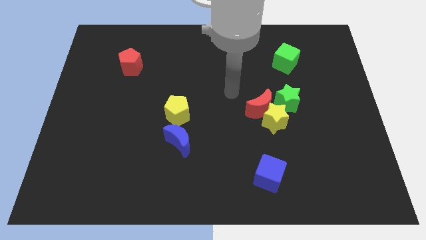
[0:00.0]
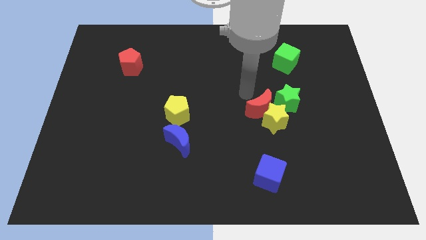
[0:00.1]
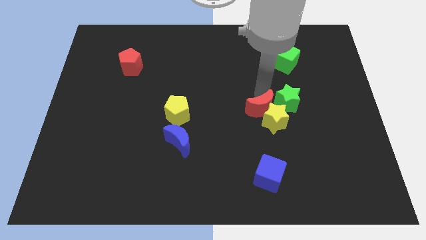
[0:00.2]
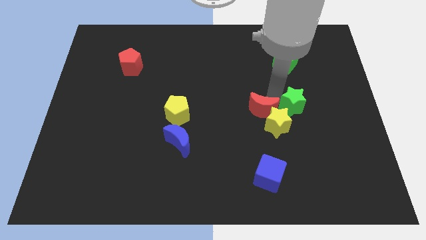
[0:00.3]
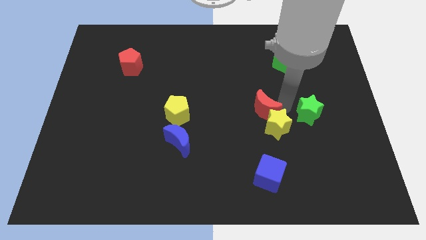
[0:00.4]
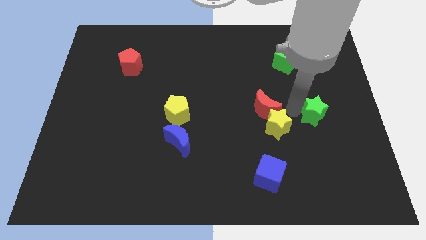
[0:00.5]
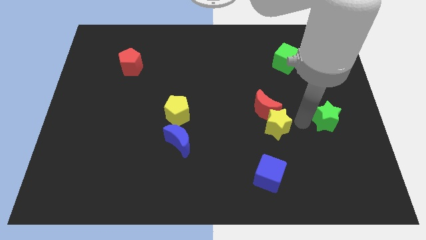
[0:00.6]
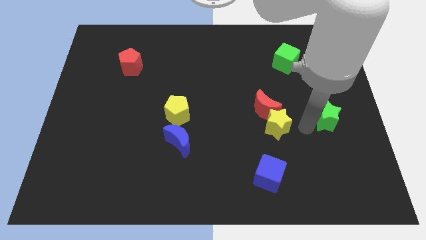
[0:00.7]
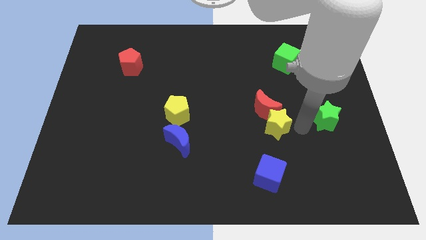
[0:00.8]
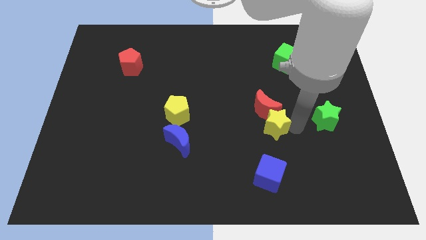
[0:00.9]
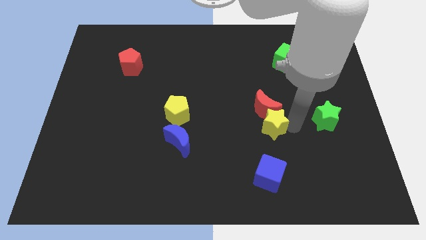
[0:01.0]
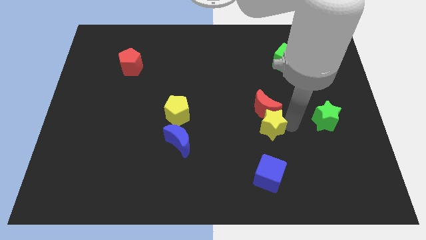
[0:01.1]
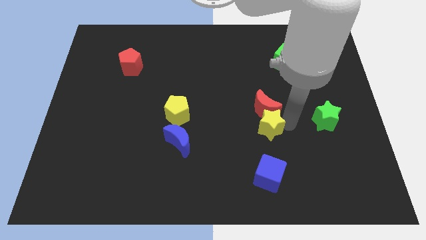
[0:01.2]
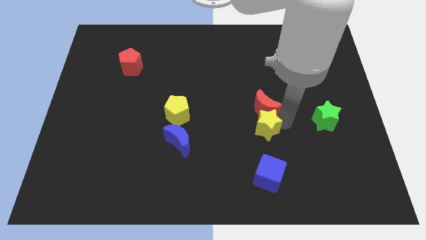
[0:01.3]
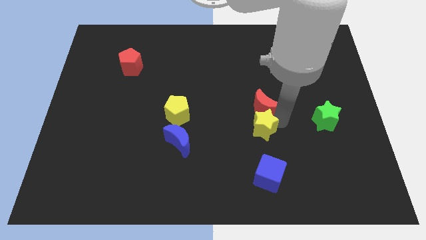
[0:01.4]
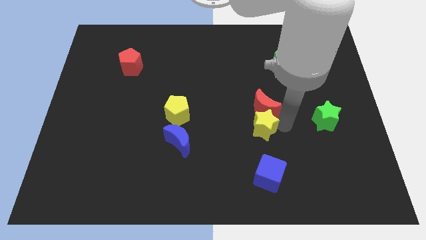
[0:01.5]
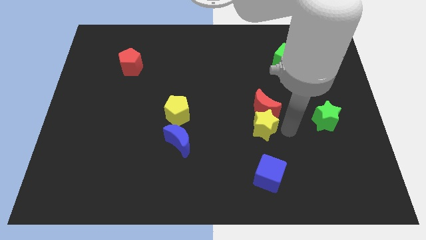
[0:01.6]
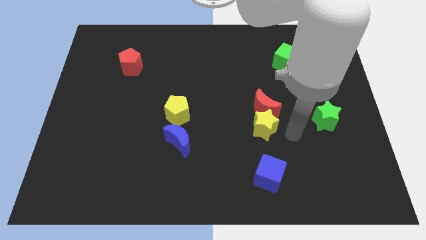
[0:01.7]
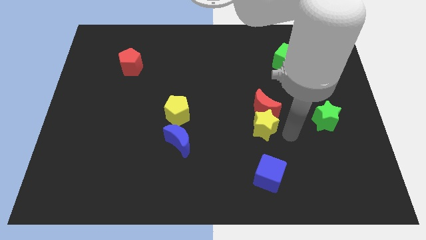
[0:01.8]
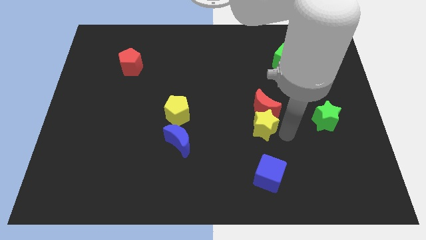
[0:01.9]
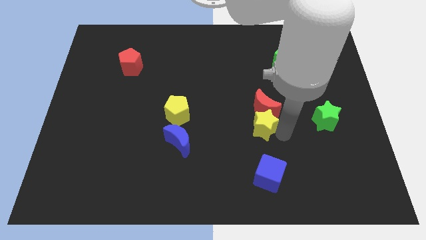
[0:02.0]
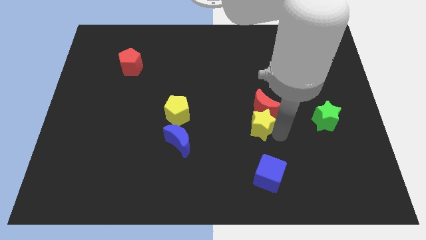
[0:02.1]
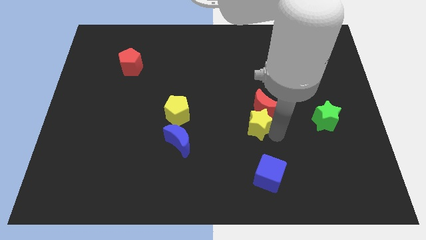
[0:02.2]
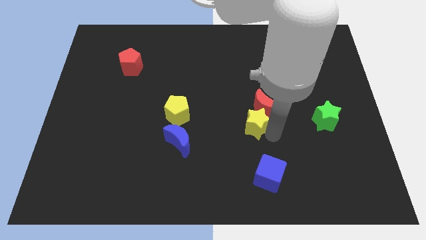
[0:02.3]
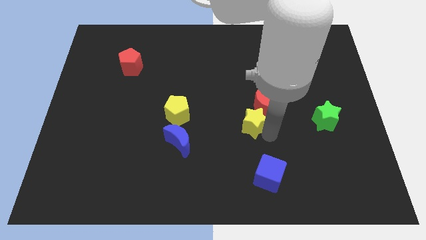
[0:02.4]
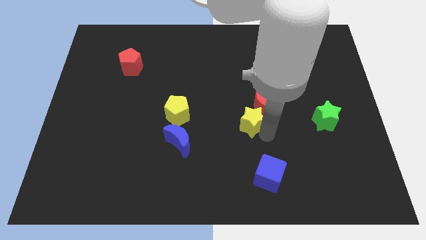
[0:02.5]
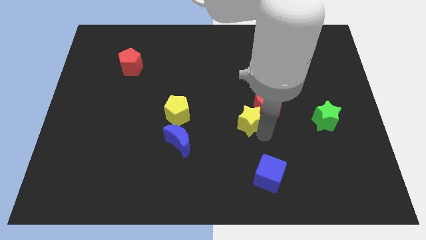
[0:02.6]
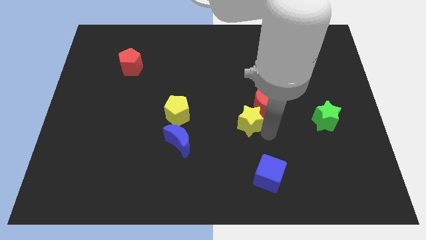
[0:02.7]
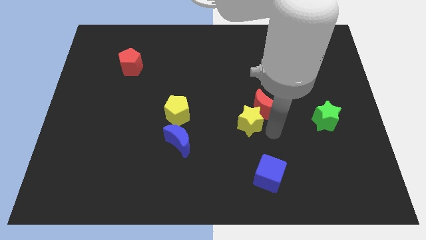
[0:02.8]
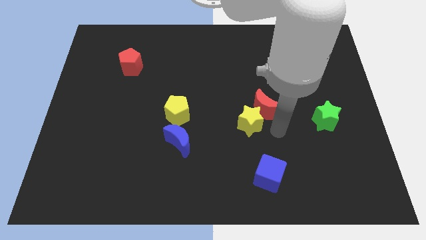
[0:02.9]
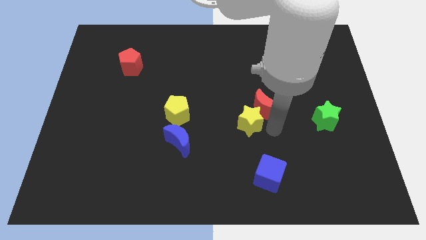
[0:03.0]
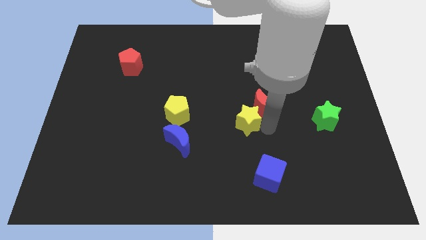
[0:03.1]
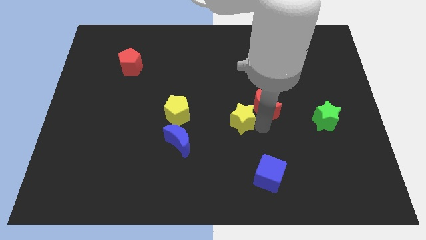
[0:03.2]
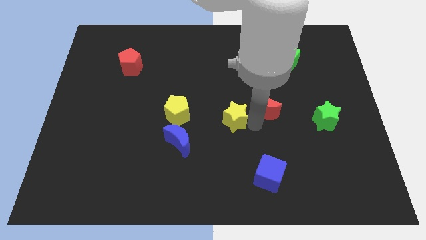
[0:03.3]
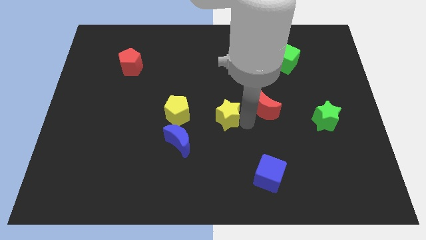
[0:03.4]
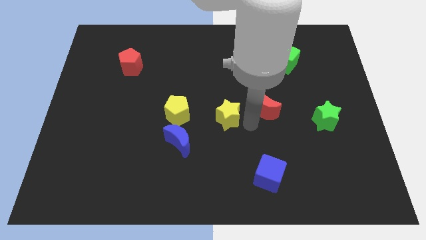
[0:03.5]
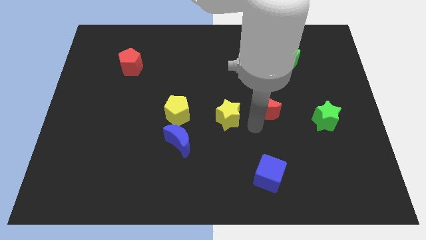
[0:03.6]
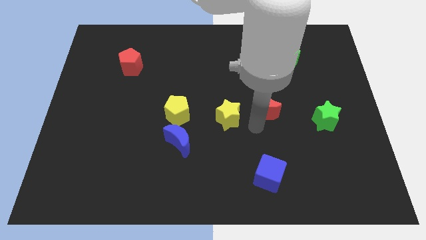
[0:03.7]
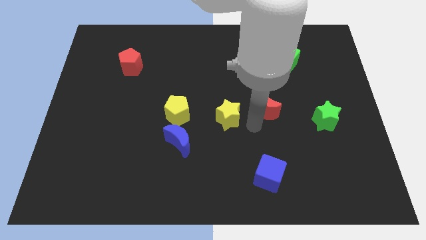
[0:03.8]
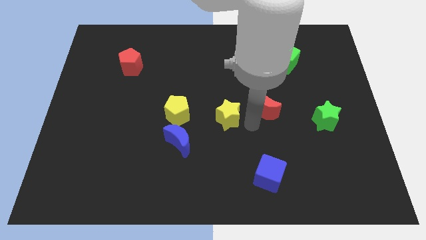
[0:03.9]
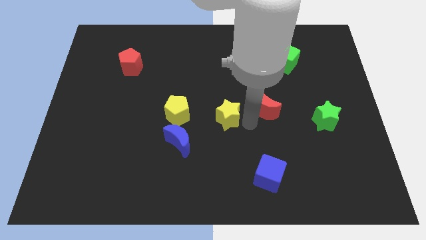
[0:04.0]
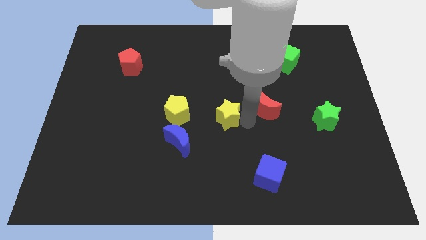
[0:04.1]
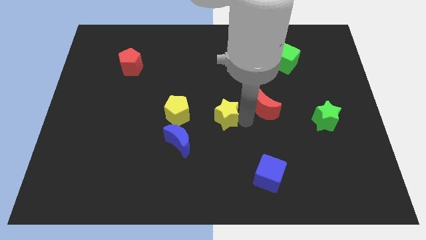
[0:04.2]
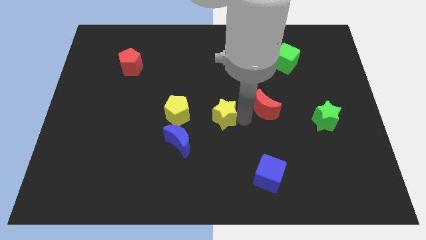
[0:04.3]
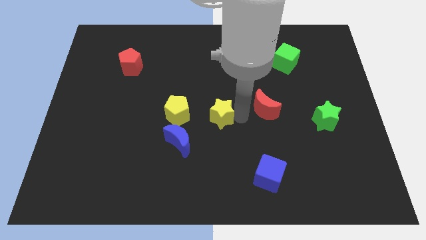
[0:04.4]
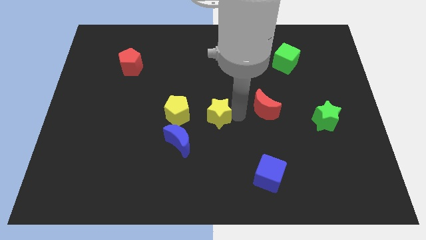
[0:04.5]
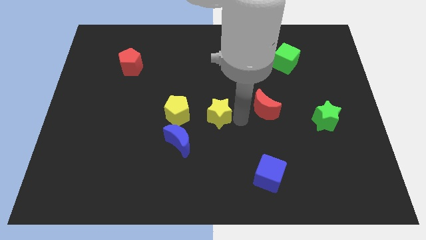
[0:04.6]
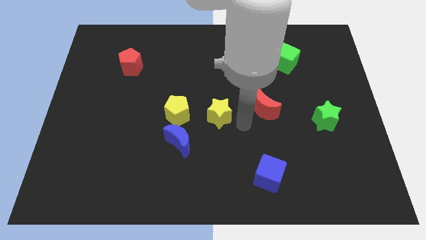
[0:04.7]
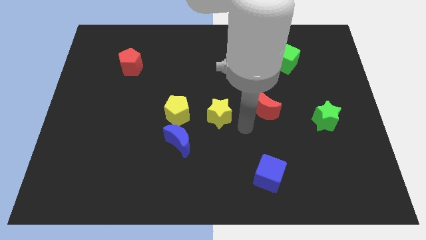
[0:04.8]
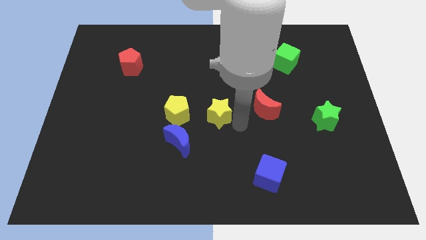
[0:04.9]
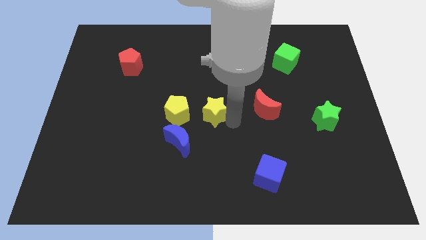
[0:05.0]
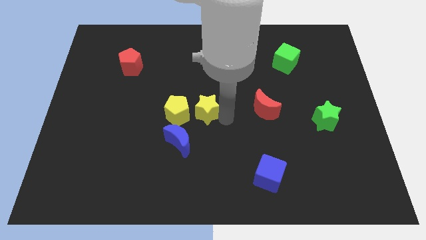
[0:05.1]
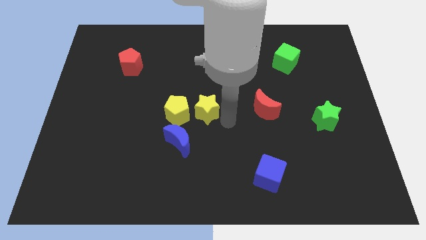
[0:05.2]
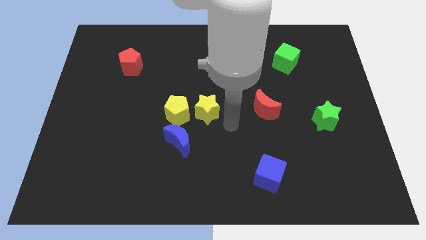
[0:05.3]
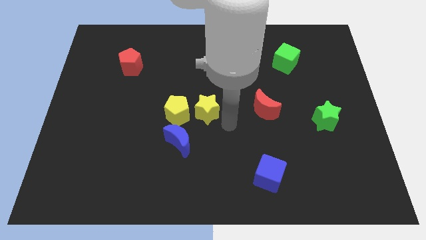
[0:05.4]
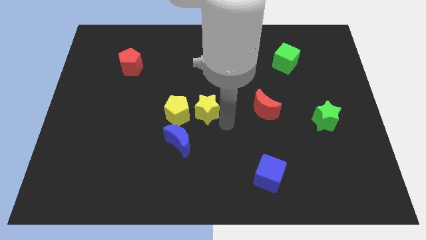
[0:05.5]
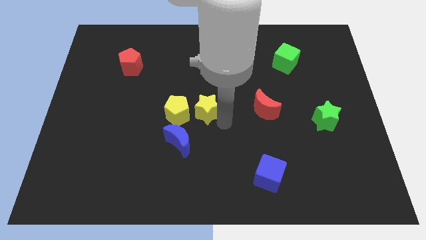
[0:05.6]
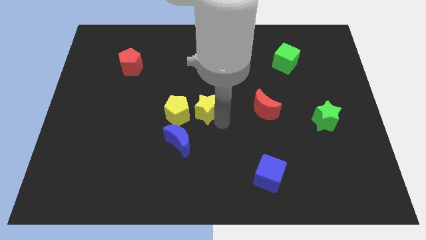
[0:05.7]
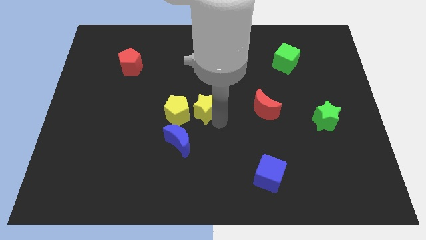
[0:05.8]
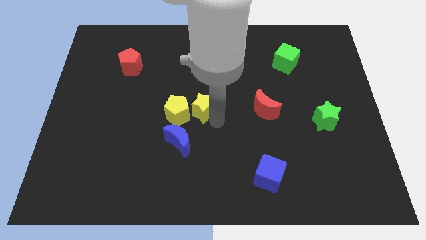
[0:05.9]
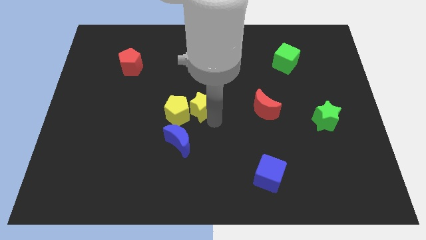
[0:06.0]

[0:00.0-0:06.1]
move the yellow star to the top of the blue moon

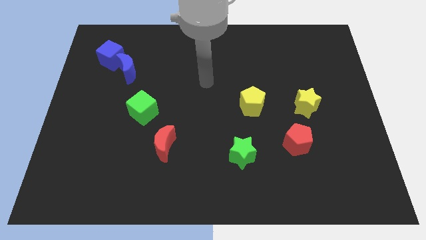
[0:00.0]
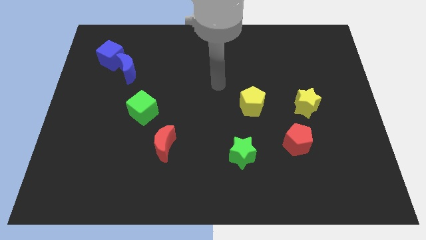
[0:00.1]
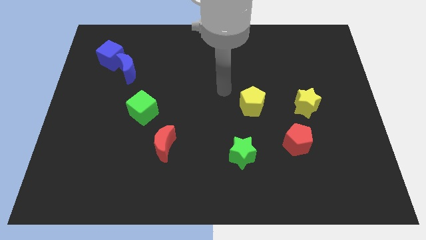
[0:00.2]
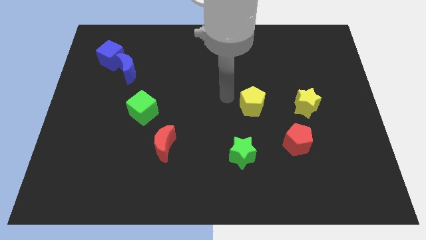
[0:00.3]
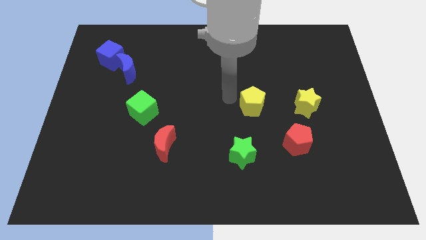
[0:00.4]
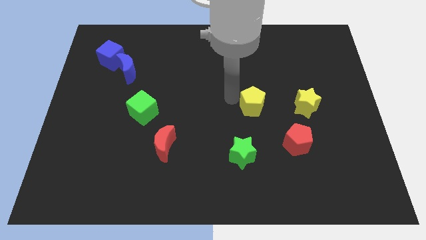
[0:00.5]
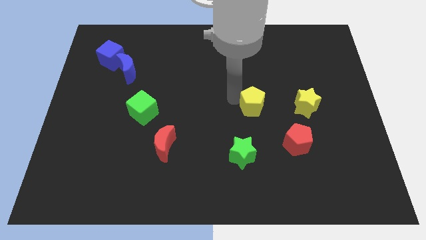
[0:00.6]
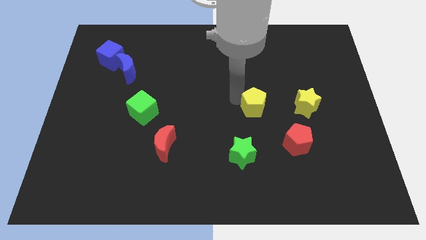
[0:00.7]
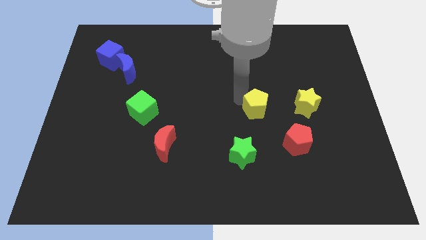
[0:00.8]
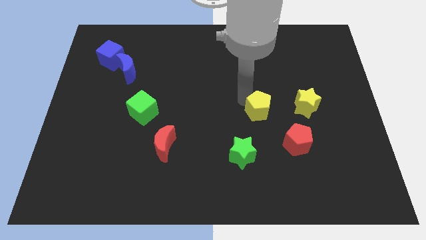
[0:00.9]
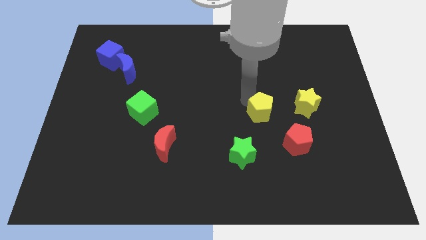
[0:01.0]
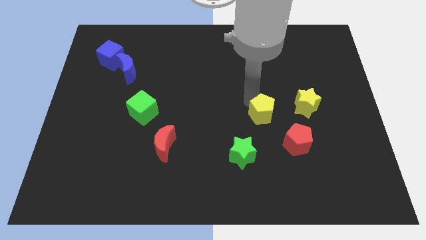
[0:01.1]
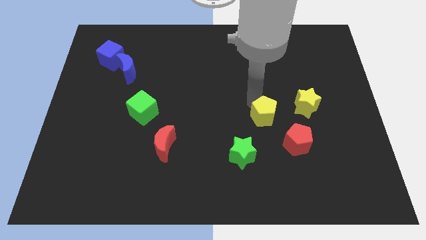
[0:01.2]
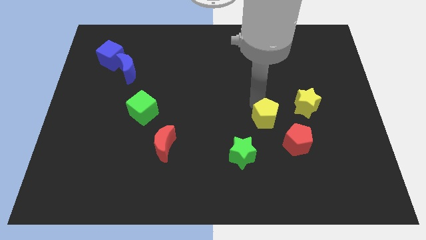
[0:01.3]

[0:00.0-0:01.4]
slide the yellow pentagon to the bottom left of the yellow star
